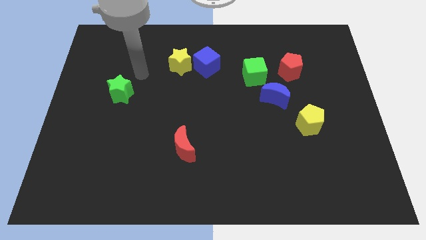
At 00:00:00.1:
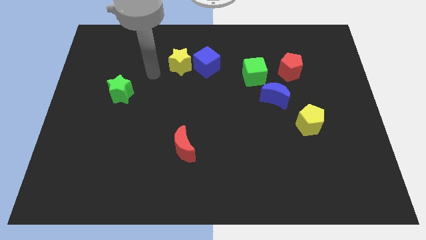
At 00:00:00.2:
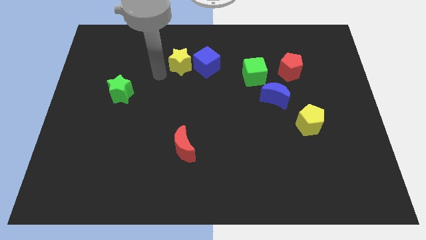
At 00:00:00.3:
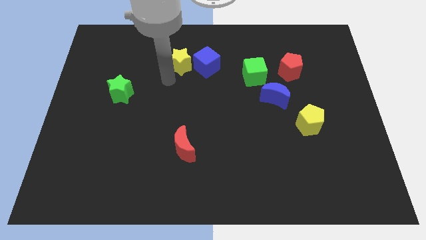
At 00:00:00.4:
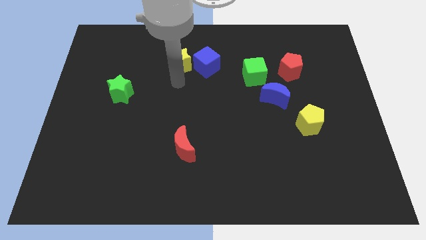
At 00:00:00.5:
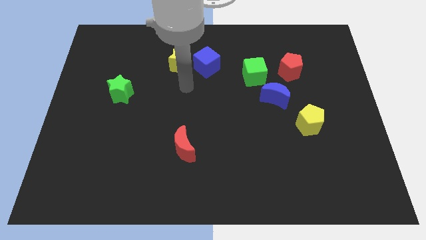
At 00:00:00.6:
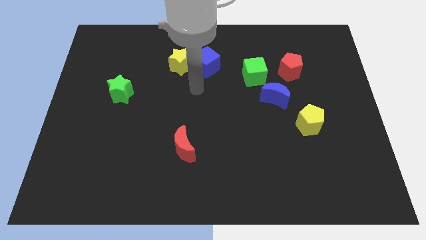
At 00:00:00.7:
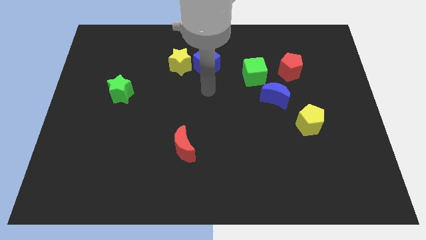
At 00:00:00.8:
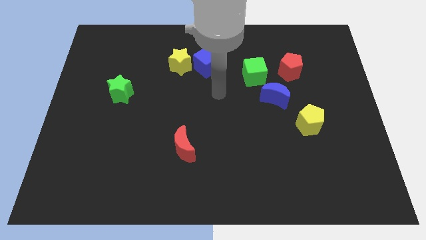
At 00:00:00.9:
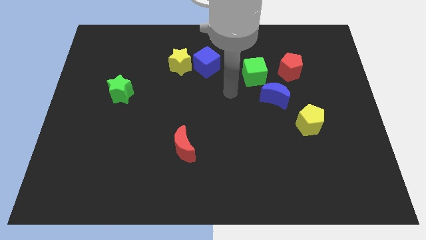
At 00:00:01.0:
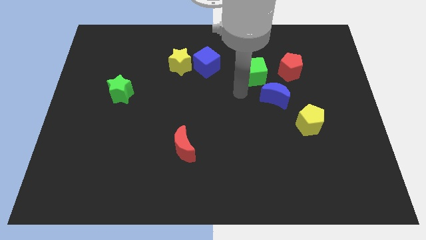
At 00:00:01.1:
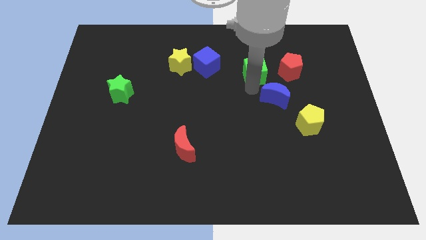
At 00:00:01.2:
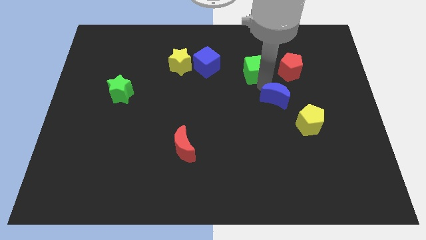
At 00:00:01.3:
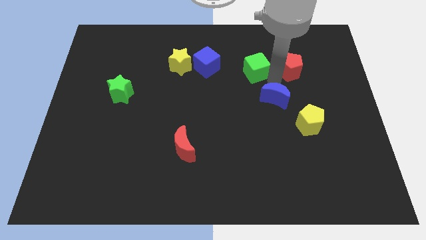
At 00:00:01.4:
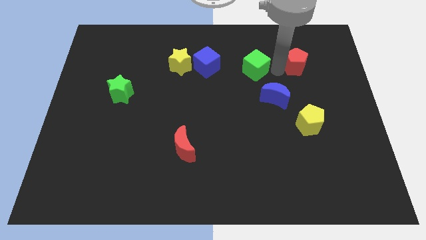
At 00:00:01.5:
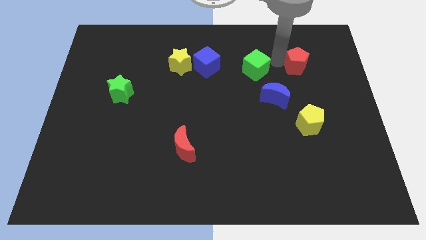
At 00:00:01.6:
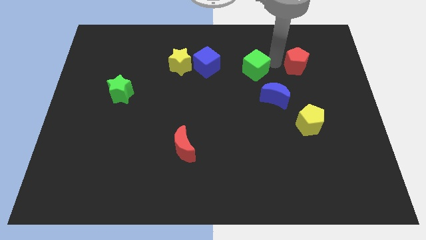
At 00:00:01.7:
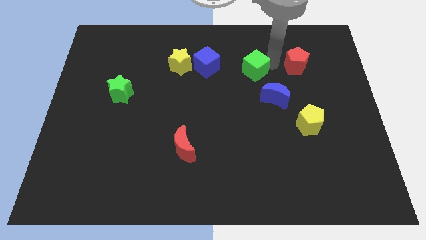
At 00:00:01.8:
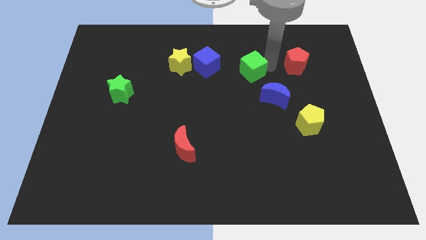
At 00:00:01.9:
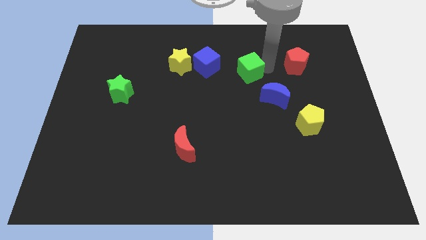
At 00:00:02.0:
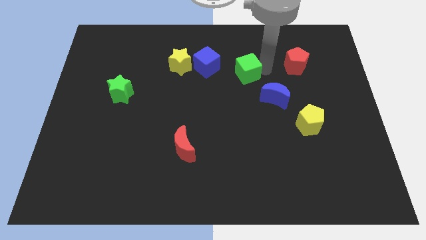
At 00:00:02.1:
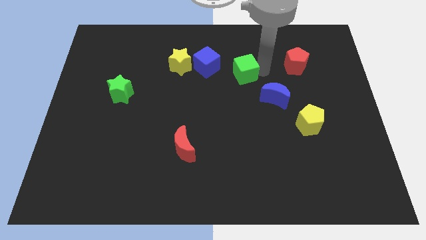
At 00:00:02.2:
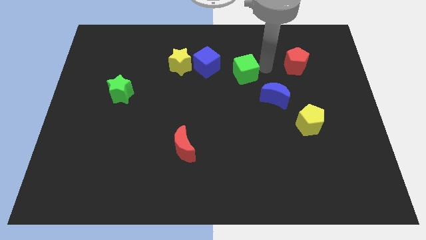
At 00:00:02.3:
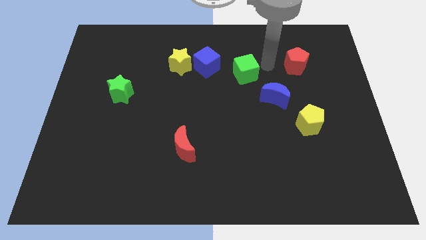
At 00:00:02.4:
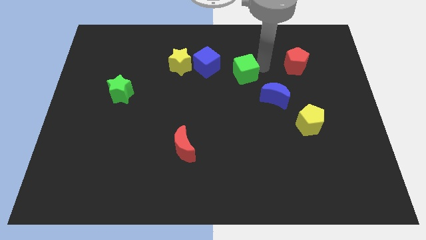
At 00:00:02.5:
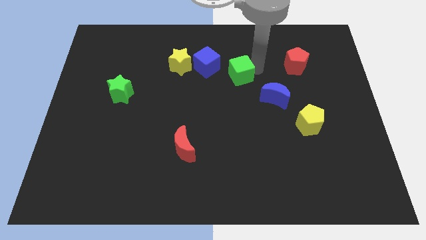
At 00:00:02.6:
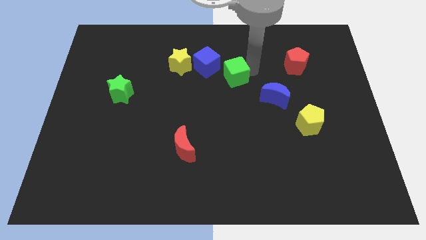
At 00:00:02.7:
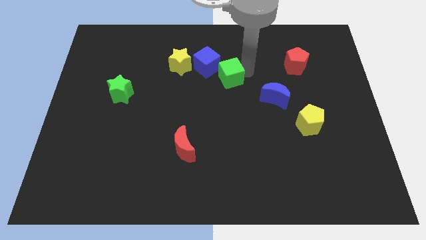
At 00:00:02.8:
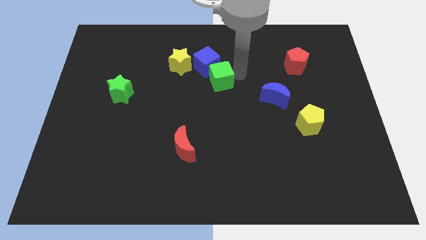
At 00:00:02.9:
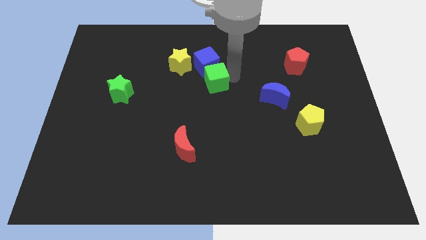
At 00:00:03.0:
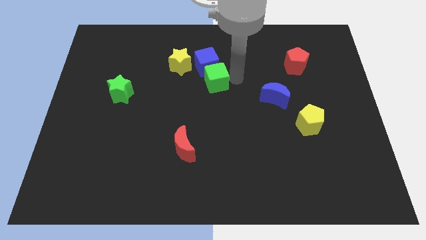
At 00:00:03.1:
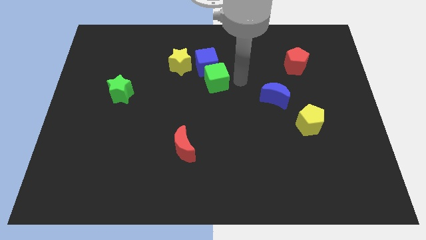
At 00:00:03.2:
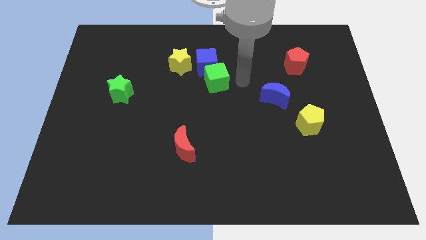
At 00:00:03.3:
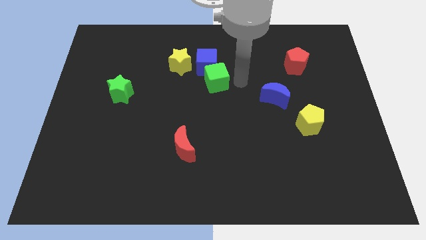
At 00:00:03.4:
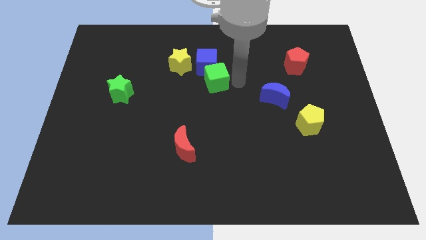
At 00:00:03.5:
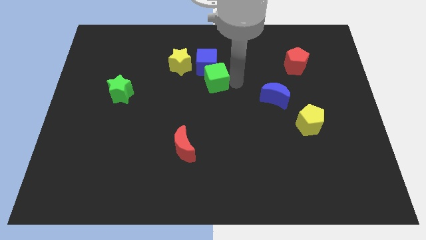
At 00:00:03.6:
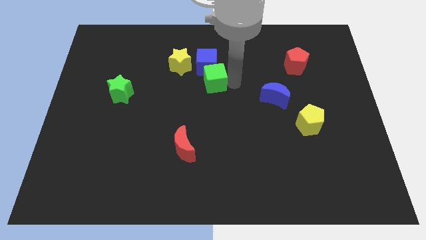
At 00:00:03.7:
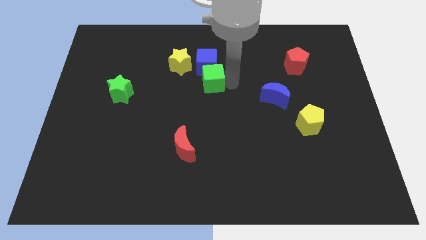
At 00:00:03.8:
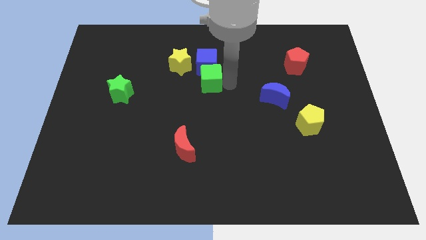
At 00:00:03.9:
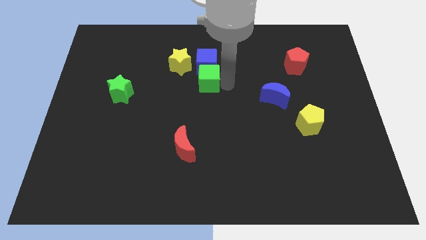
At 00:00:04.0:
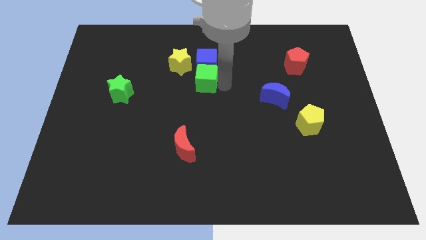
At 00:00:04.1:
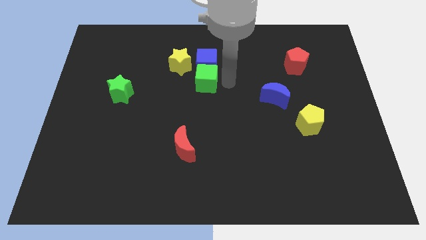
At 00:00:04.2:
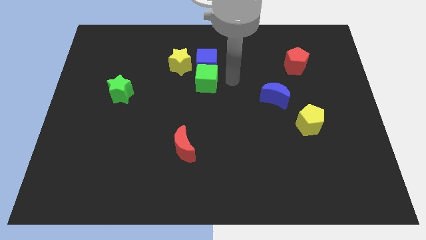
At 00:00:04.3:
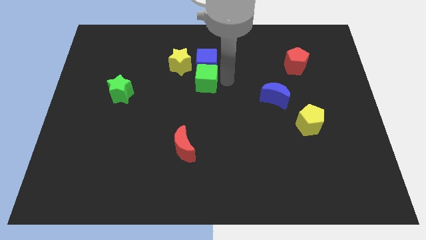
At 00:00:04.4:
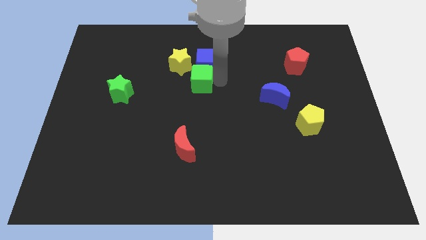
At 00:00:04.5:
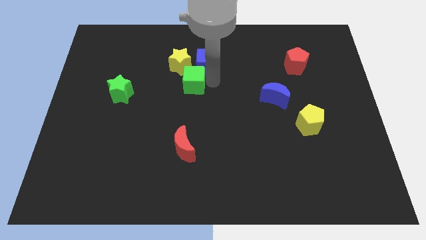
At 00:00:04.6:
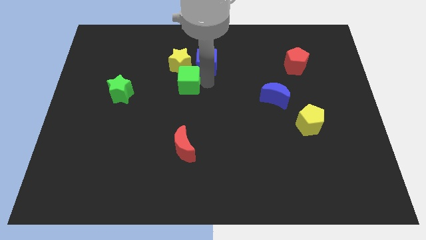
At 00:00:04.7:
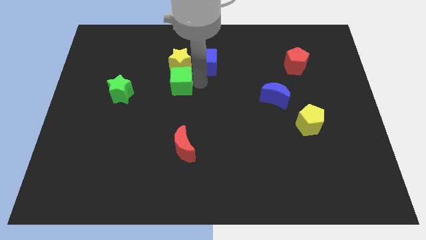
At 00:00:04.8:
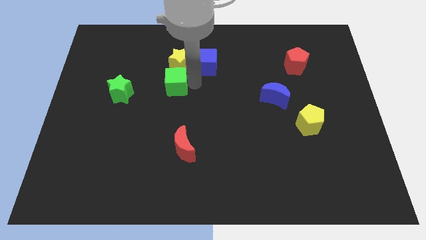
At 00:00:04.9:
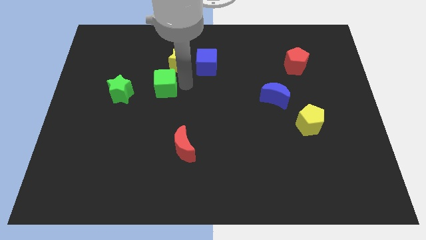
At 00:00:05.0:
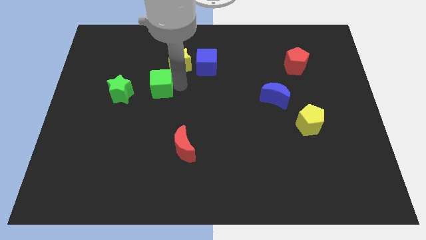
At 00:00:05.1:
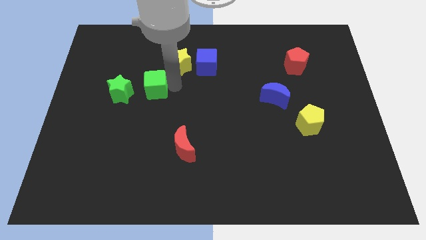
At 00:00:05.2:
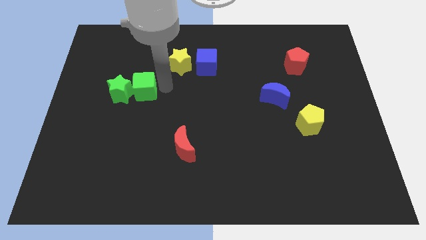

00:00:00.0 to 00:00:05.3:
push the green cube next to the green star

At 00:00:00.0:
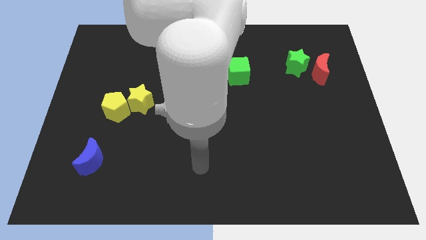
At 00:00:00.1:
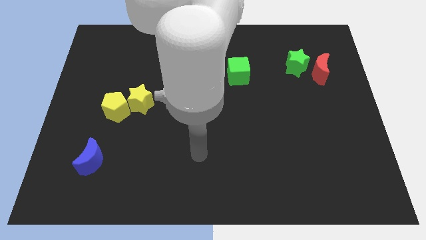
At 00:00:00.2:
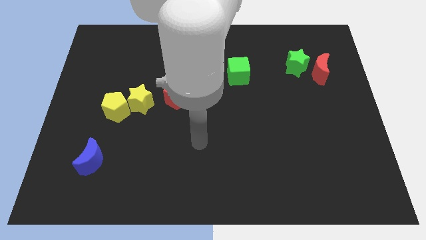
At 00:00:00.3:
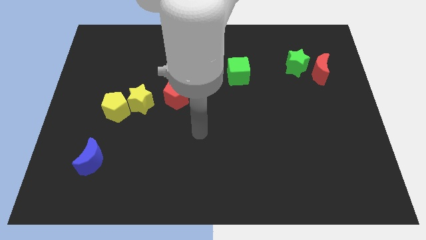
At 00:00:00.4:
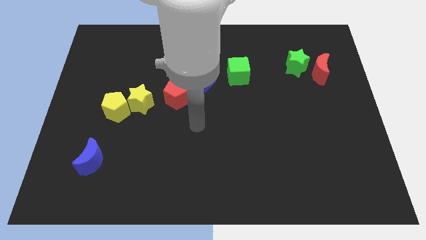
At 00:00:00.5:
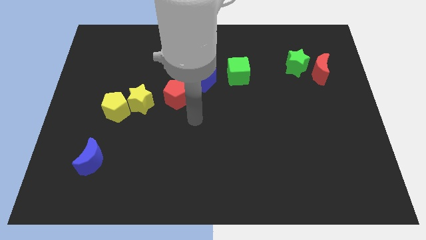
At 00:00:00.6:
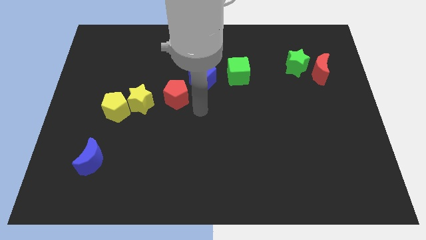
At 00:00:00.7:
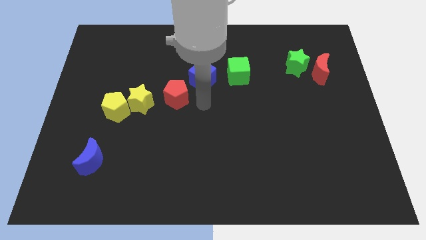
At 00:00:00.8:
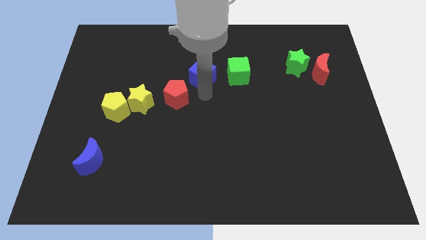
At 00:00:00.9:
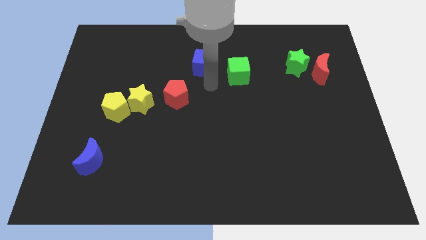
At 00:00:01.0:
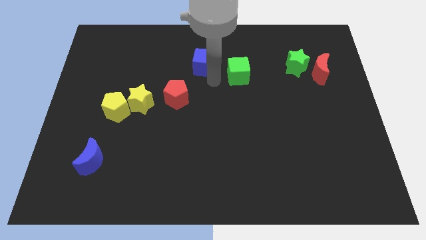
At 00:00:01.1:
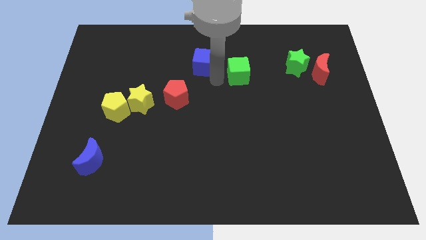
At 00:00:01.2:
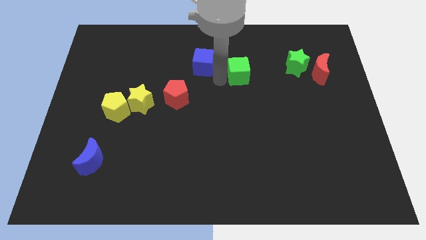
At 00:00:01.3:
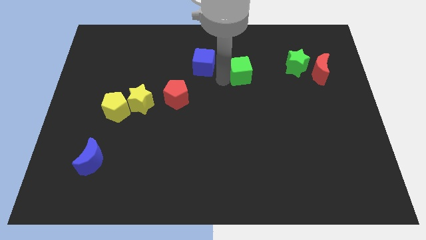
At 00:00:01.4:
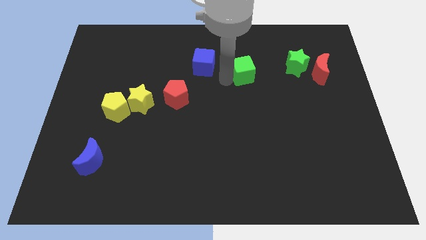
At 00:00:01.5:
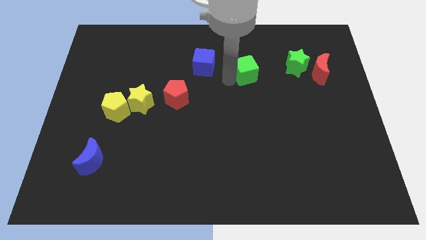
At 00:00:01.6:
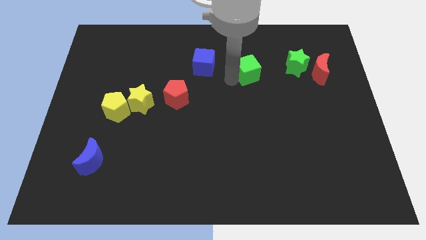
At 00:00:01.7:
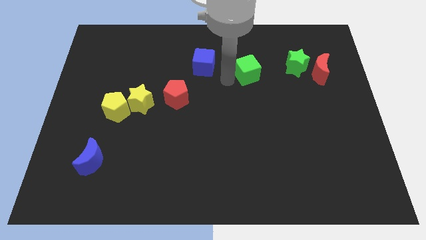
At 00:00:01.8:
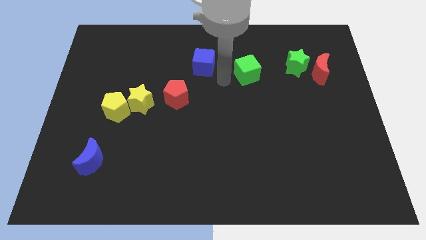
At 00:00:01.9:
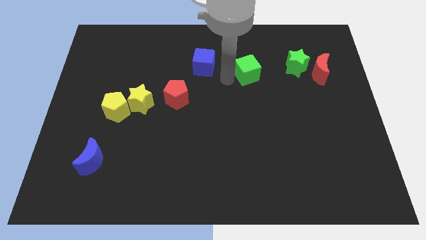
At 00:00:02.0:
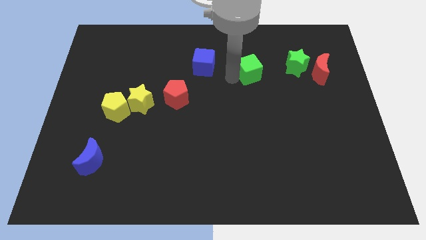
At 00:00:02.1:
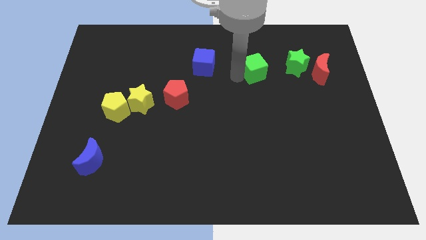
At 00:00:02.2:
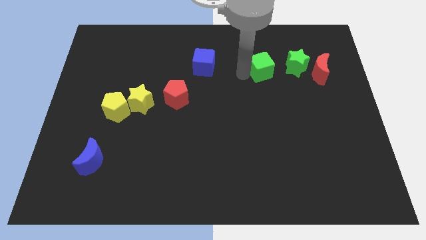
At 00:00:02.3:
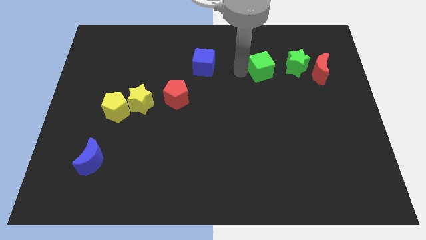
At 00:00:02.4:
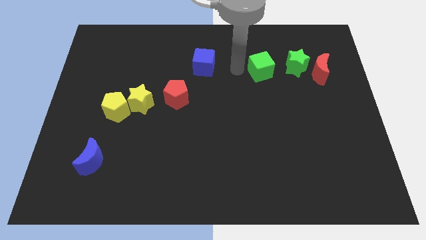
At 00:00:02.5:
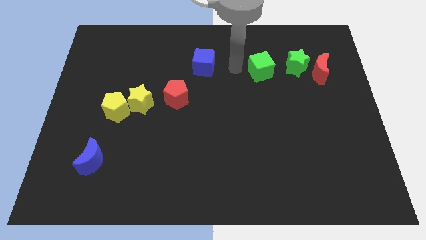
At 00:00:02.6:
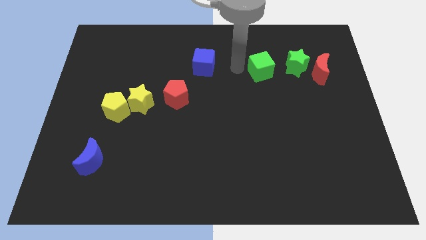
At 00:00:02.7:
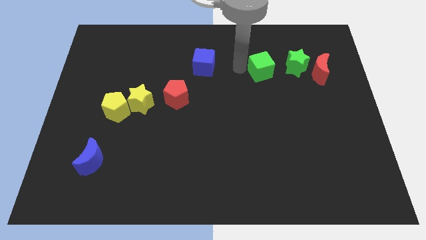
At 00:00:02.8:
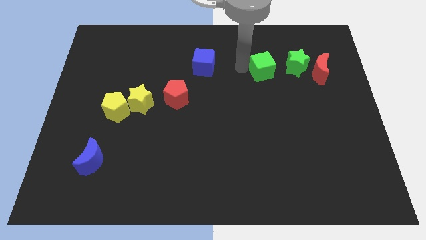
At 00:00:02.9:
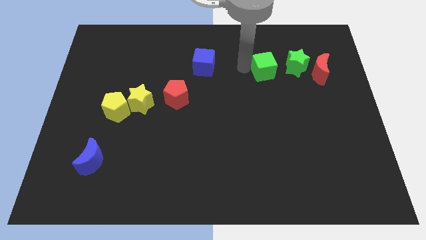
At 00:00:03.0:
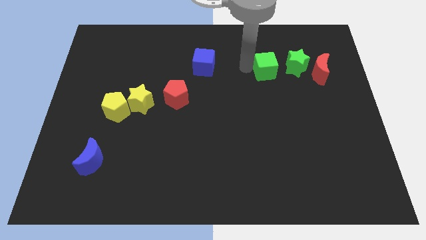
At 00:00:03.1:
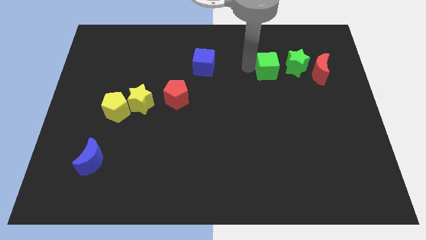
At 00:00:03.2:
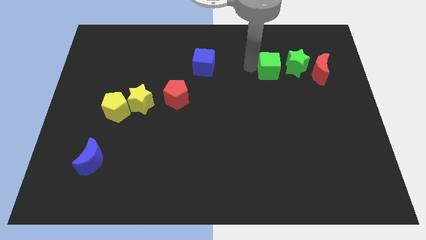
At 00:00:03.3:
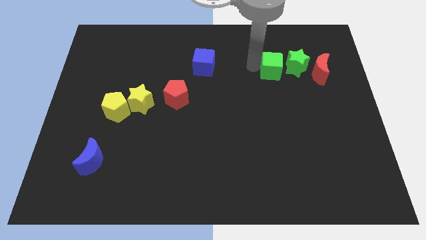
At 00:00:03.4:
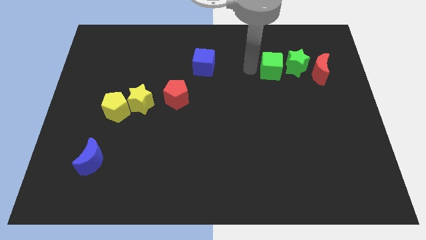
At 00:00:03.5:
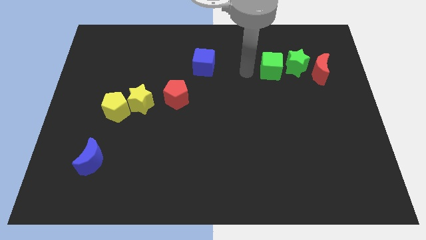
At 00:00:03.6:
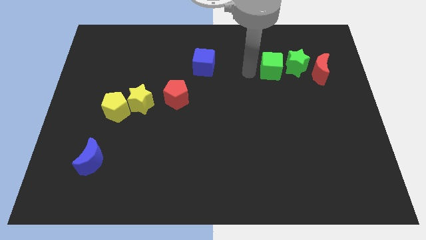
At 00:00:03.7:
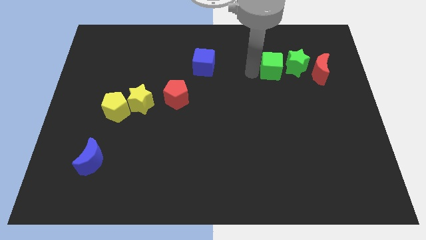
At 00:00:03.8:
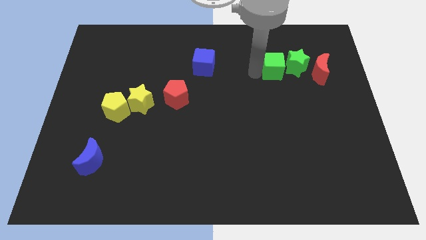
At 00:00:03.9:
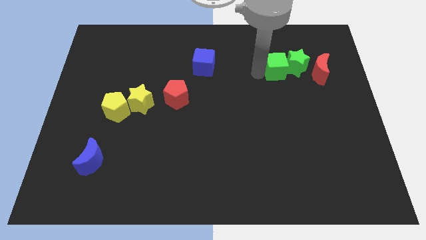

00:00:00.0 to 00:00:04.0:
move the green cube close to the green star
